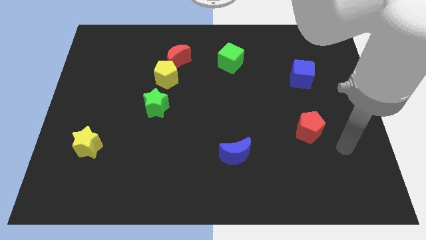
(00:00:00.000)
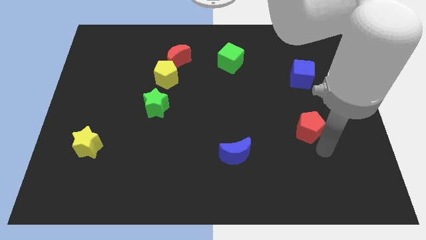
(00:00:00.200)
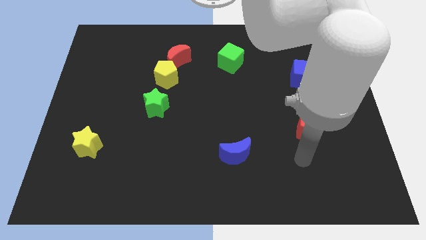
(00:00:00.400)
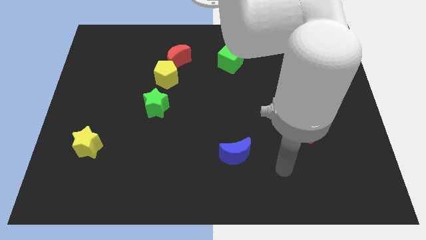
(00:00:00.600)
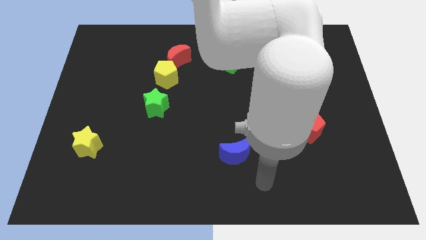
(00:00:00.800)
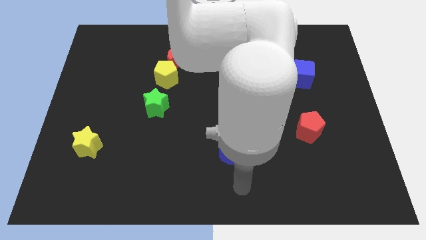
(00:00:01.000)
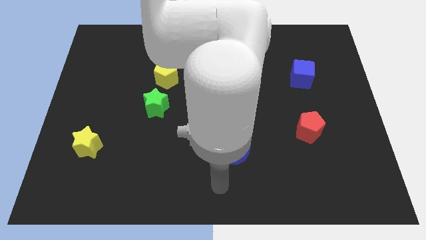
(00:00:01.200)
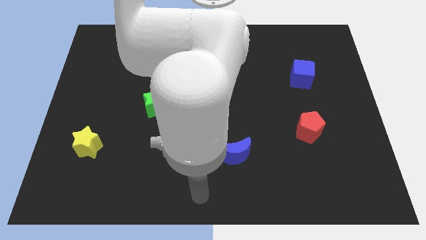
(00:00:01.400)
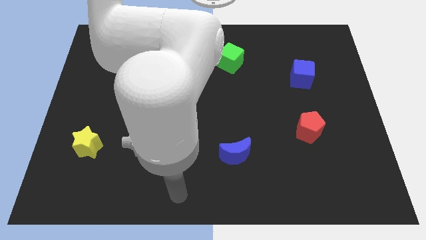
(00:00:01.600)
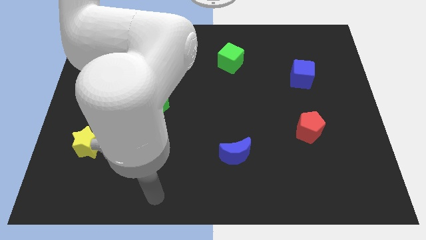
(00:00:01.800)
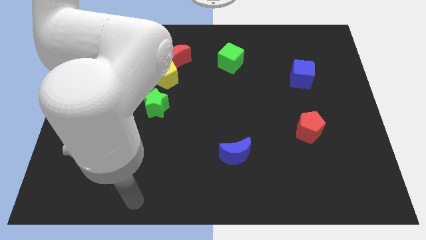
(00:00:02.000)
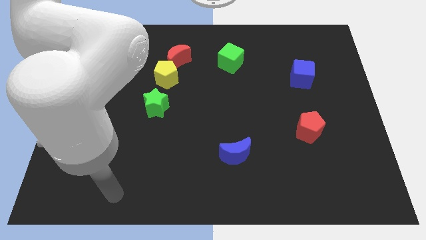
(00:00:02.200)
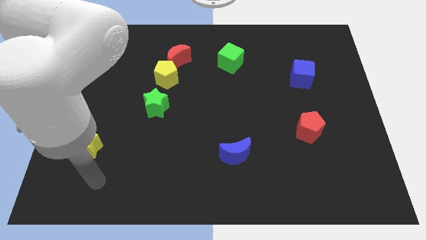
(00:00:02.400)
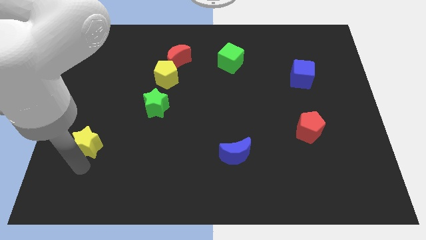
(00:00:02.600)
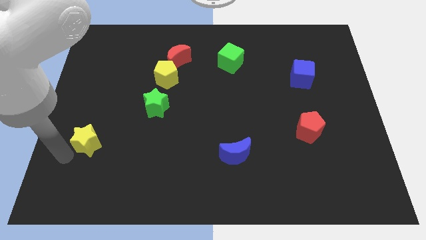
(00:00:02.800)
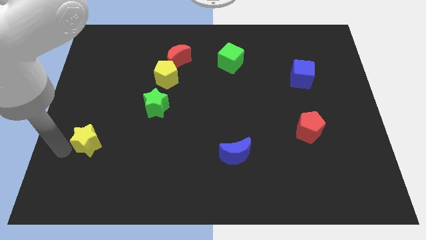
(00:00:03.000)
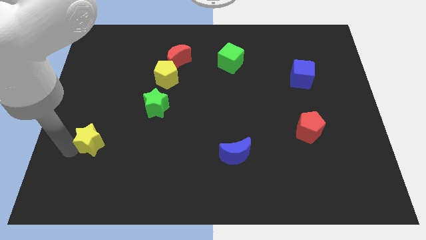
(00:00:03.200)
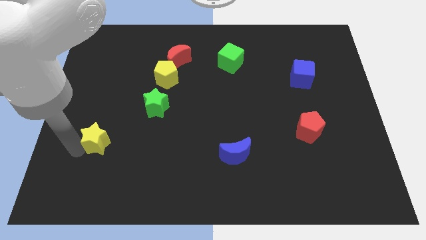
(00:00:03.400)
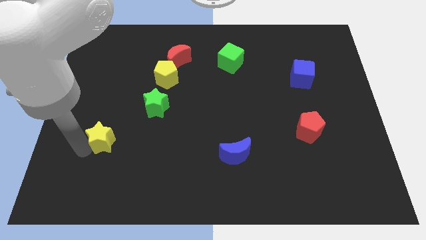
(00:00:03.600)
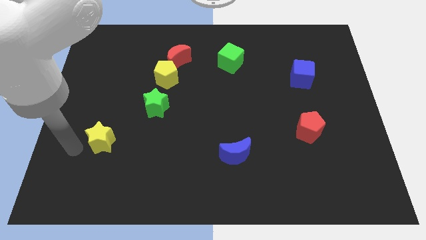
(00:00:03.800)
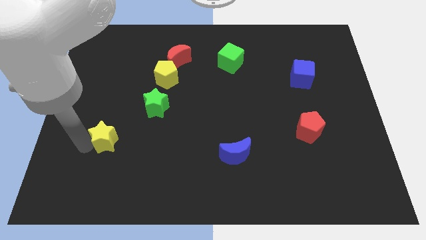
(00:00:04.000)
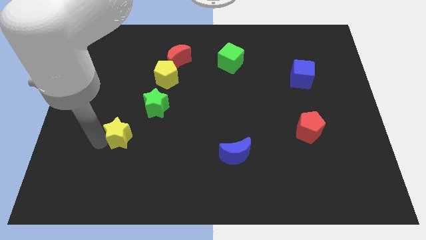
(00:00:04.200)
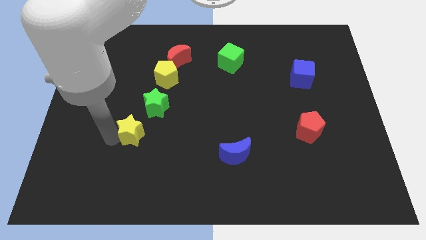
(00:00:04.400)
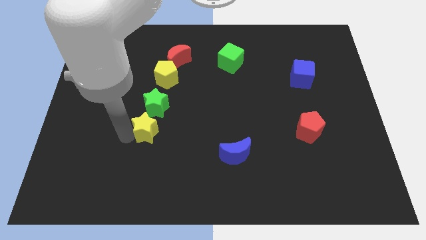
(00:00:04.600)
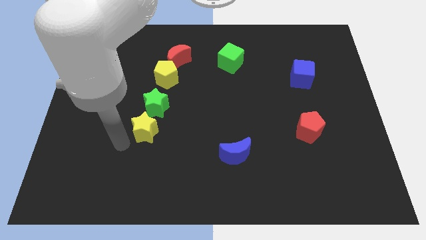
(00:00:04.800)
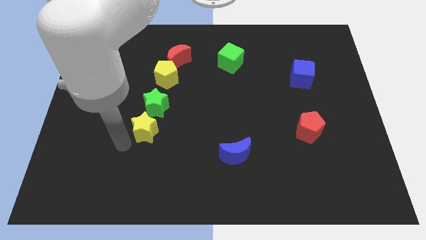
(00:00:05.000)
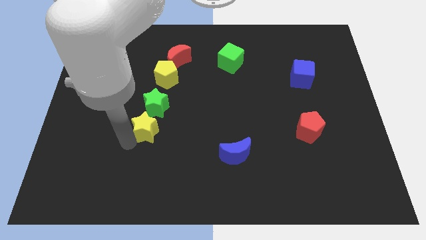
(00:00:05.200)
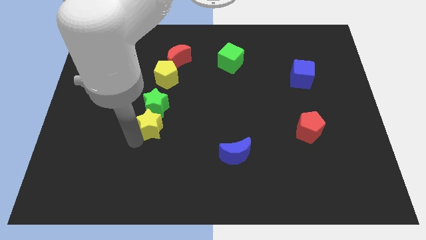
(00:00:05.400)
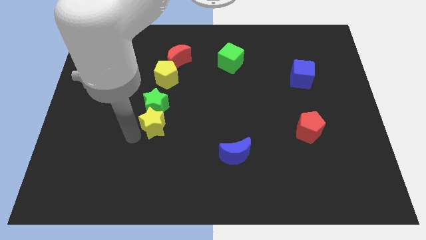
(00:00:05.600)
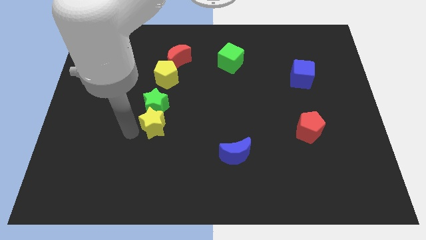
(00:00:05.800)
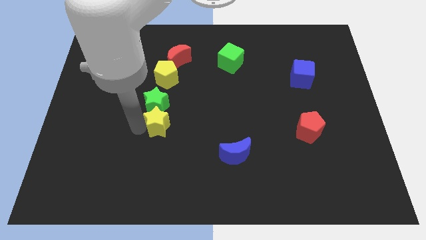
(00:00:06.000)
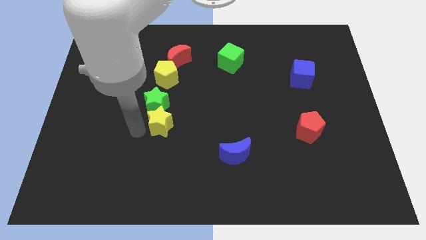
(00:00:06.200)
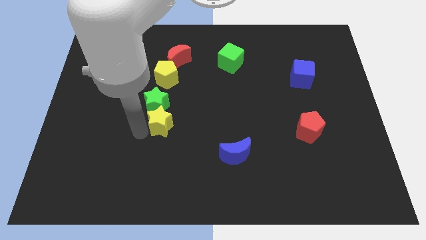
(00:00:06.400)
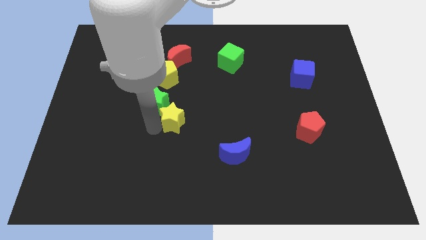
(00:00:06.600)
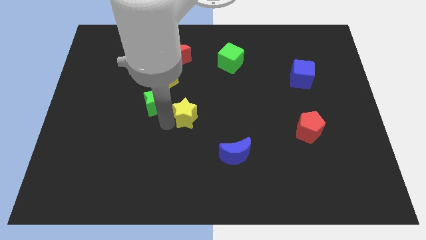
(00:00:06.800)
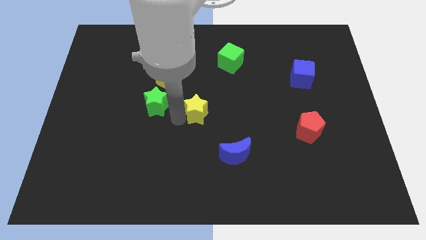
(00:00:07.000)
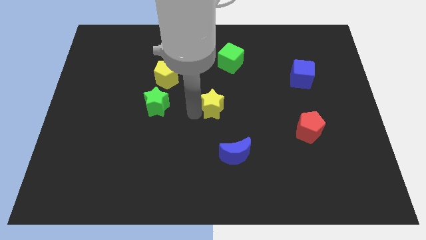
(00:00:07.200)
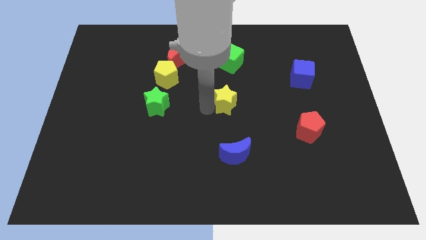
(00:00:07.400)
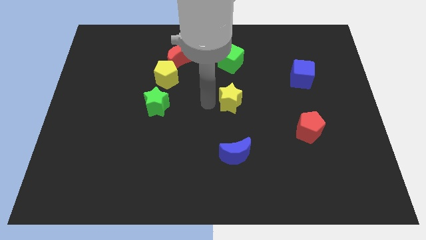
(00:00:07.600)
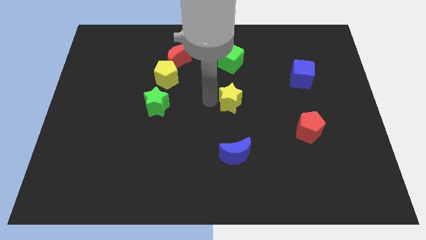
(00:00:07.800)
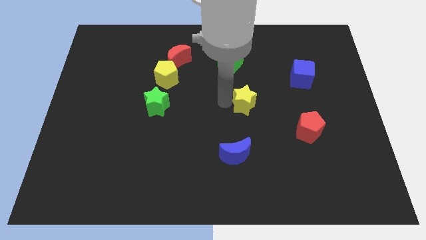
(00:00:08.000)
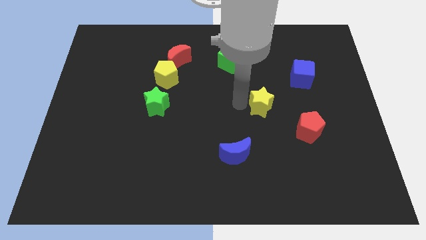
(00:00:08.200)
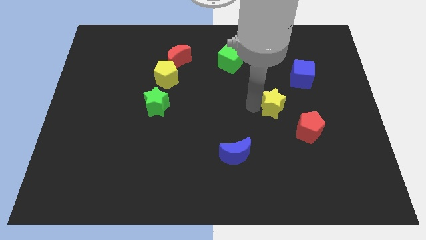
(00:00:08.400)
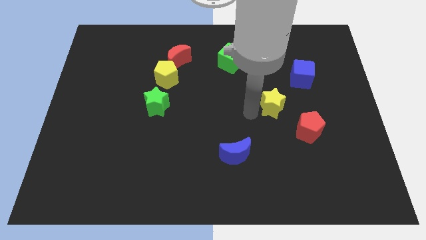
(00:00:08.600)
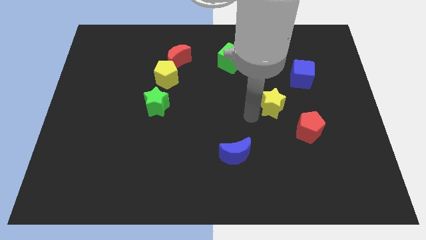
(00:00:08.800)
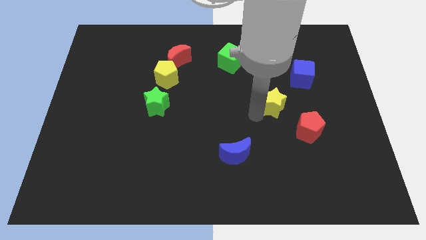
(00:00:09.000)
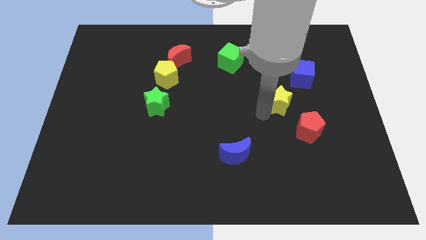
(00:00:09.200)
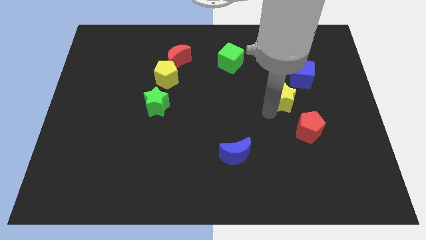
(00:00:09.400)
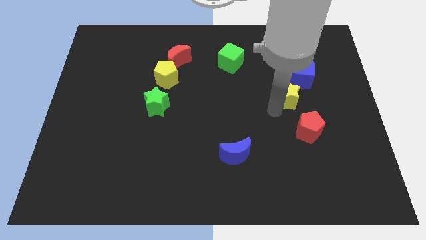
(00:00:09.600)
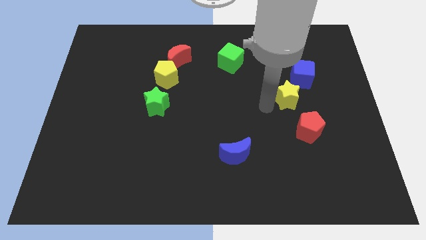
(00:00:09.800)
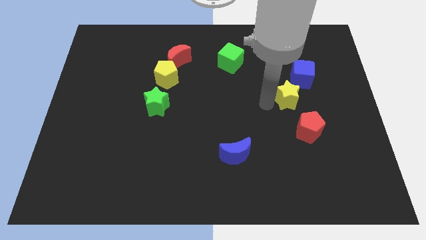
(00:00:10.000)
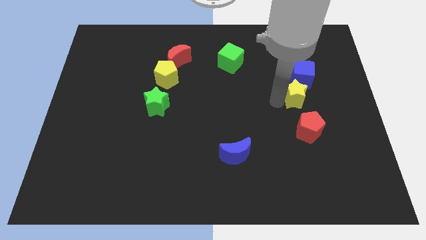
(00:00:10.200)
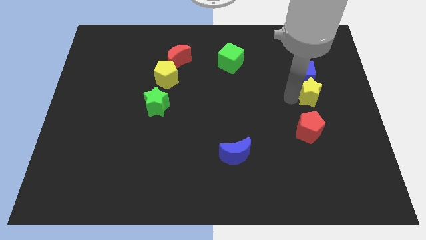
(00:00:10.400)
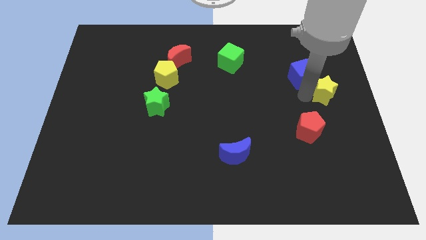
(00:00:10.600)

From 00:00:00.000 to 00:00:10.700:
put the yellow star to the right side of the board

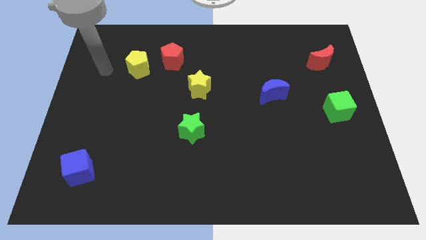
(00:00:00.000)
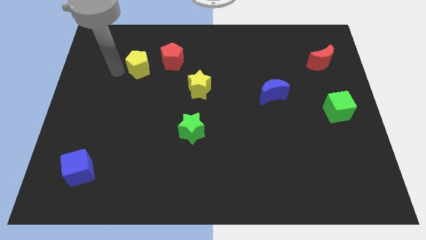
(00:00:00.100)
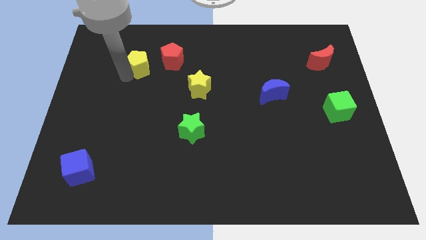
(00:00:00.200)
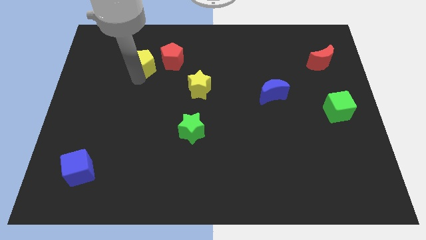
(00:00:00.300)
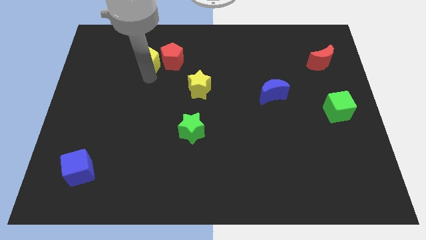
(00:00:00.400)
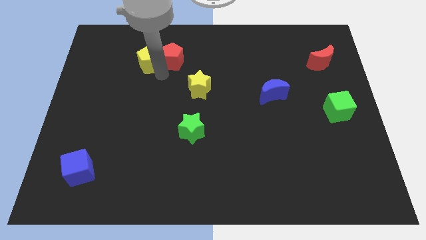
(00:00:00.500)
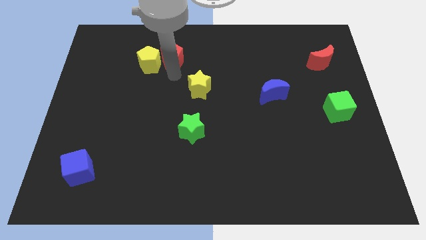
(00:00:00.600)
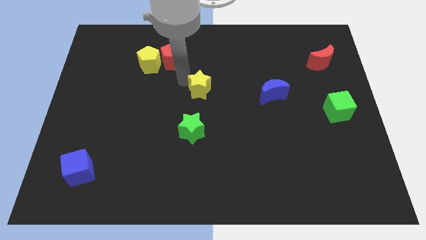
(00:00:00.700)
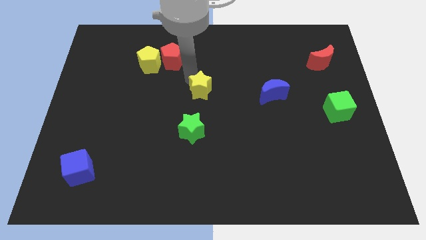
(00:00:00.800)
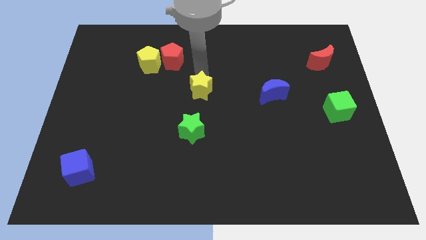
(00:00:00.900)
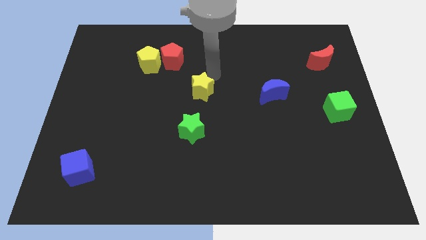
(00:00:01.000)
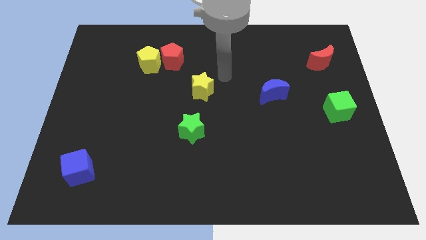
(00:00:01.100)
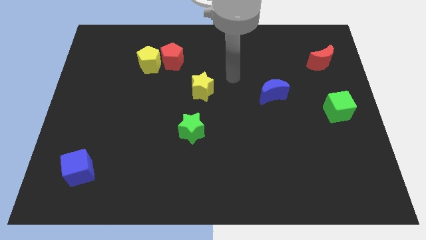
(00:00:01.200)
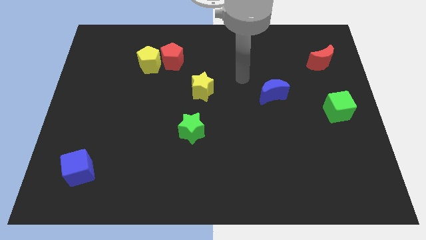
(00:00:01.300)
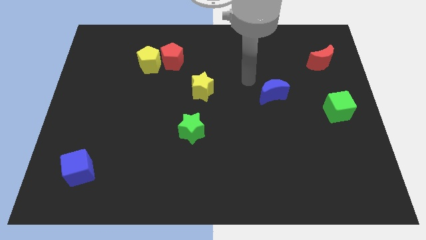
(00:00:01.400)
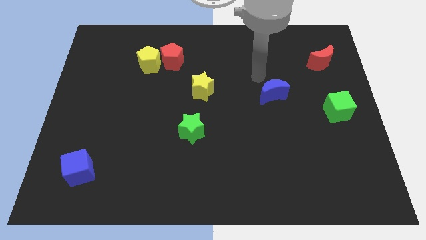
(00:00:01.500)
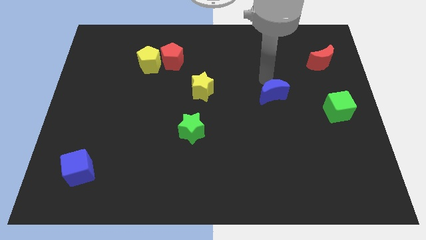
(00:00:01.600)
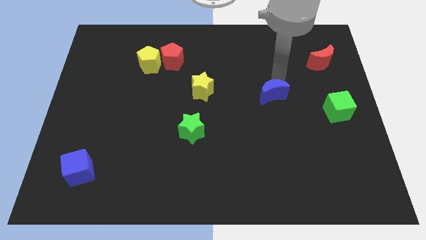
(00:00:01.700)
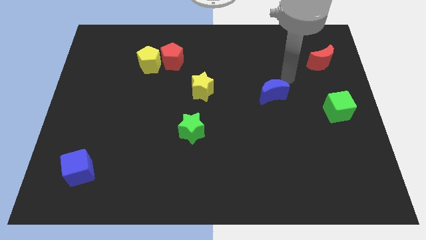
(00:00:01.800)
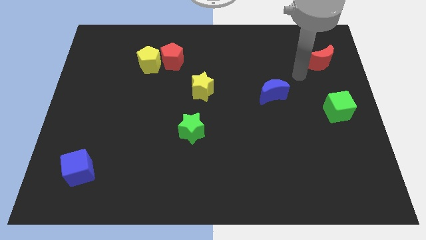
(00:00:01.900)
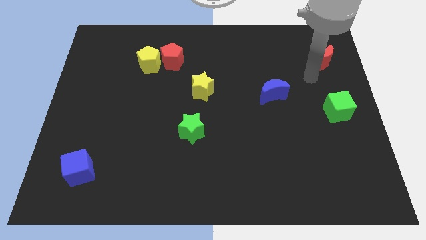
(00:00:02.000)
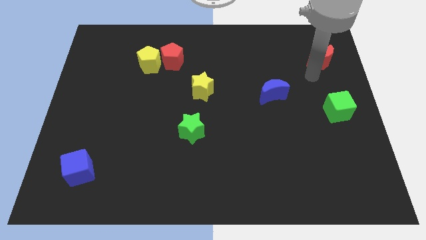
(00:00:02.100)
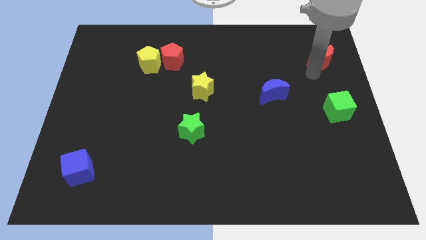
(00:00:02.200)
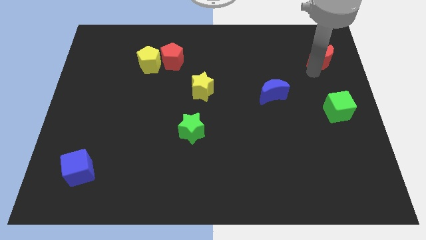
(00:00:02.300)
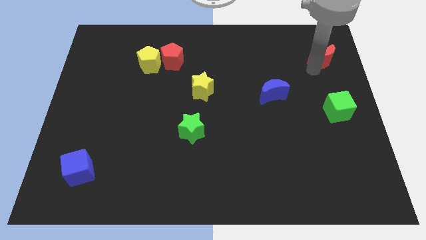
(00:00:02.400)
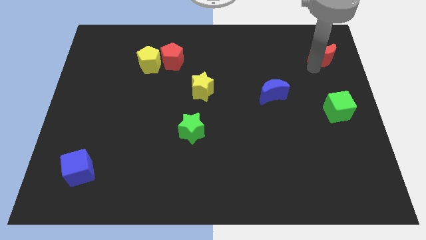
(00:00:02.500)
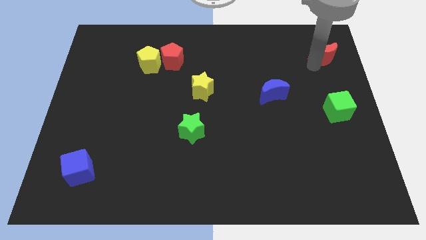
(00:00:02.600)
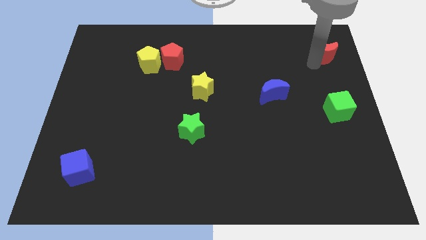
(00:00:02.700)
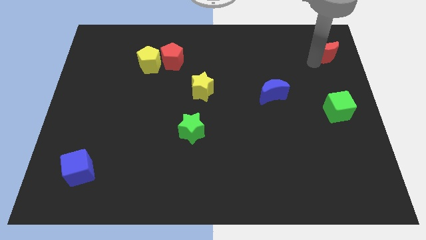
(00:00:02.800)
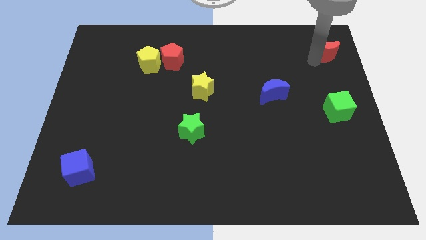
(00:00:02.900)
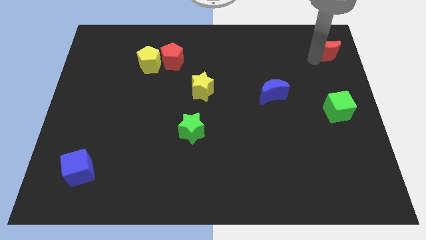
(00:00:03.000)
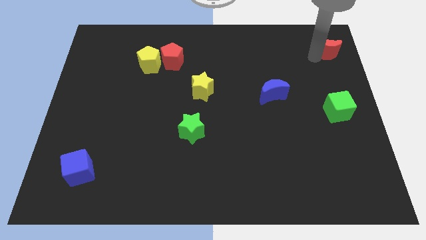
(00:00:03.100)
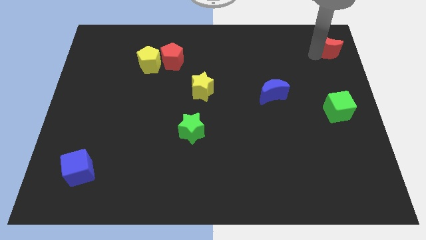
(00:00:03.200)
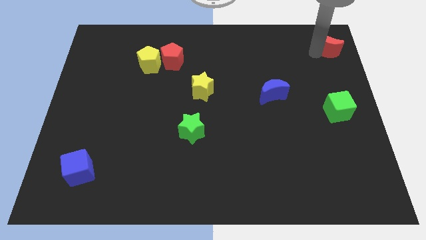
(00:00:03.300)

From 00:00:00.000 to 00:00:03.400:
slide the red moon to the top right corner
